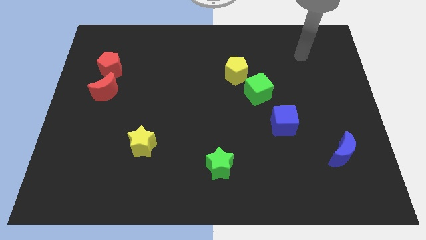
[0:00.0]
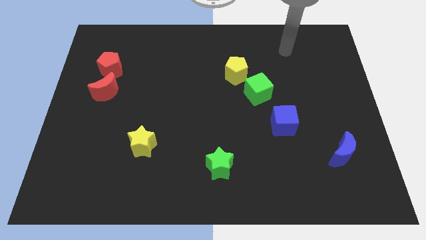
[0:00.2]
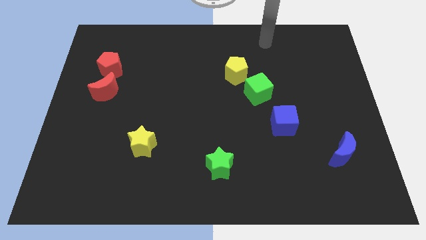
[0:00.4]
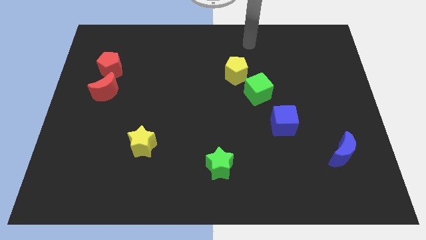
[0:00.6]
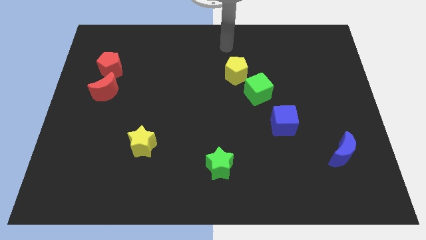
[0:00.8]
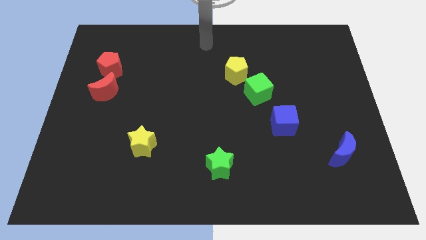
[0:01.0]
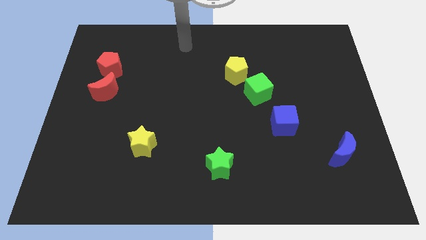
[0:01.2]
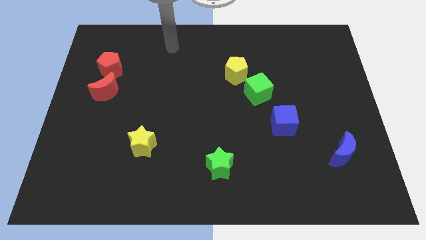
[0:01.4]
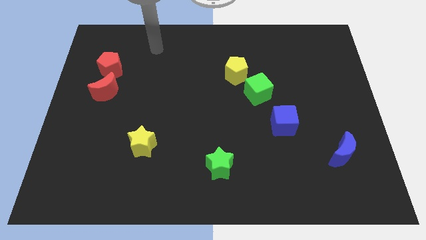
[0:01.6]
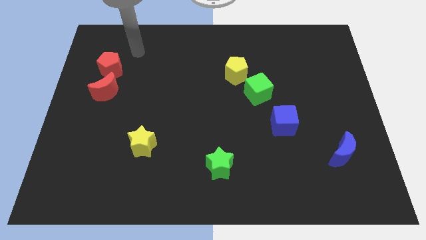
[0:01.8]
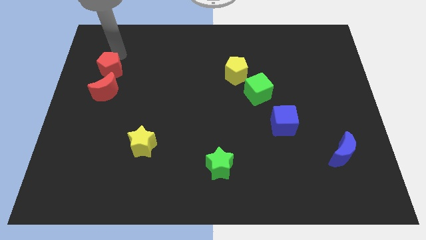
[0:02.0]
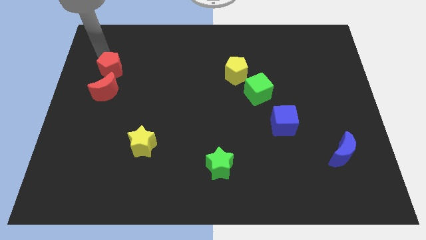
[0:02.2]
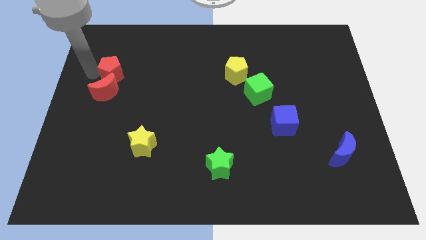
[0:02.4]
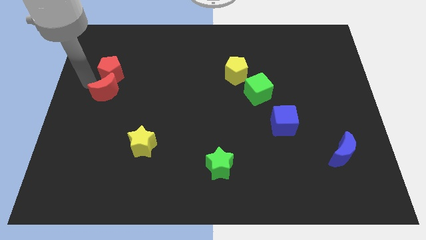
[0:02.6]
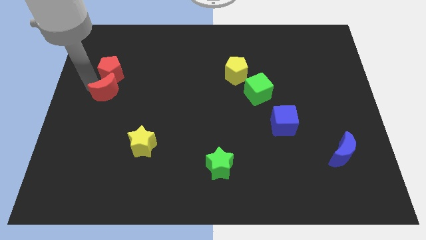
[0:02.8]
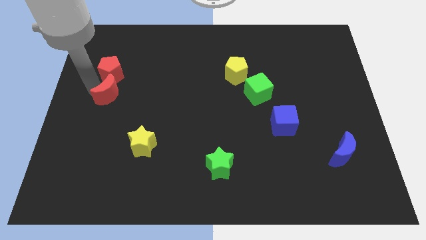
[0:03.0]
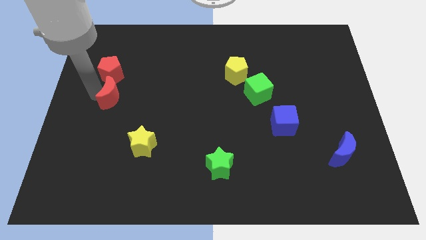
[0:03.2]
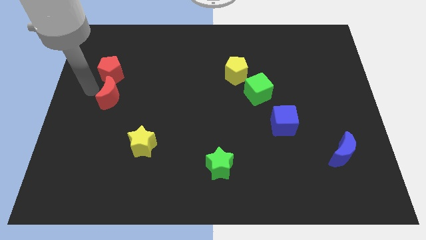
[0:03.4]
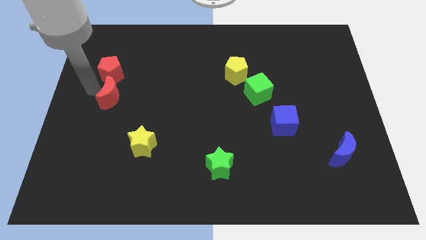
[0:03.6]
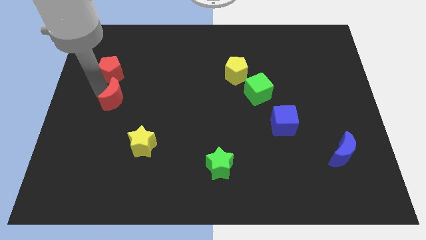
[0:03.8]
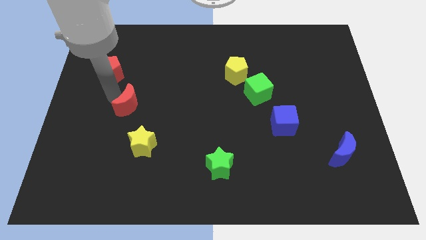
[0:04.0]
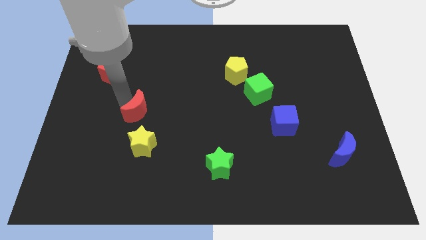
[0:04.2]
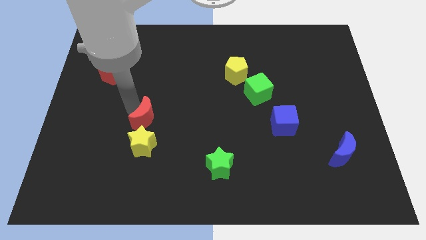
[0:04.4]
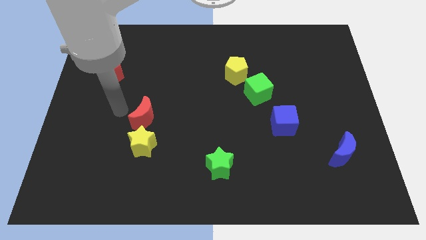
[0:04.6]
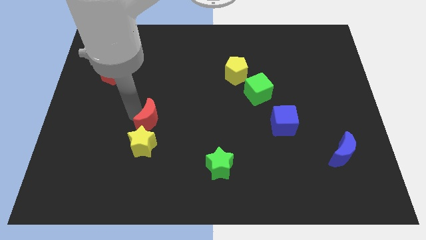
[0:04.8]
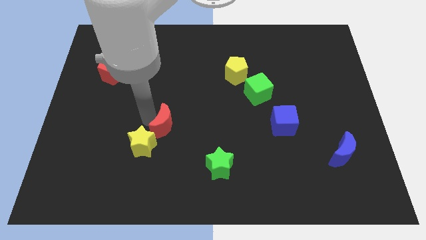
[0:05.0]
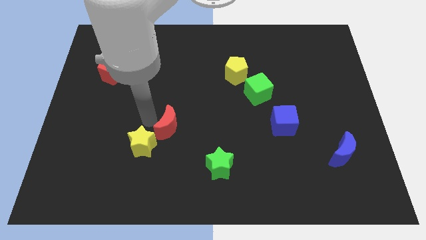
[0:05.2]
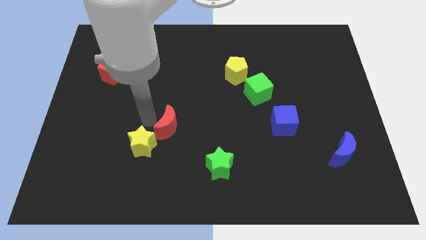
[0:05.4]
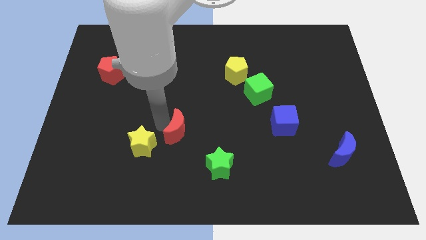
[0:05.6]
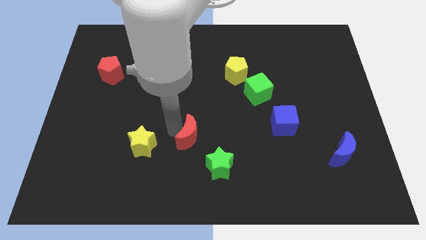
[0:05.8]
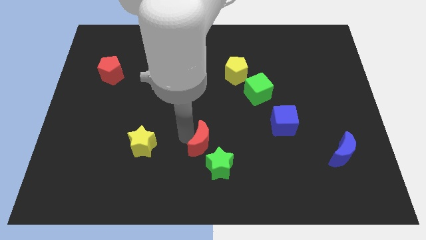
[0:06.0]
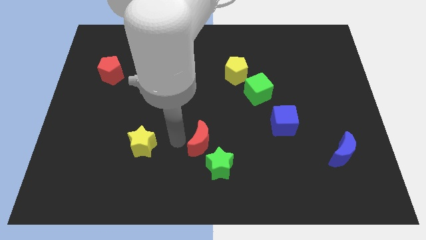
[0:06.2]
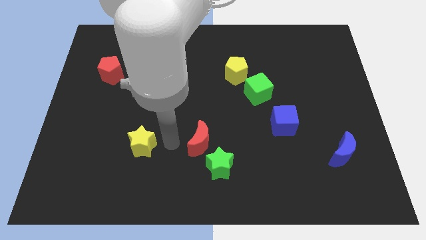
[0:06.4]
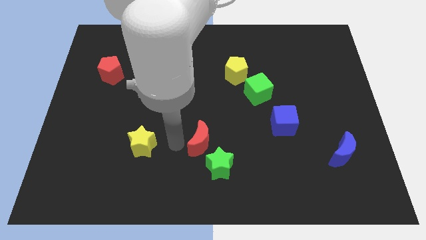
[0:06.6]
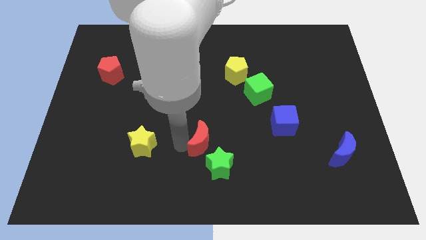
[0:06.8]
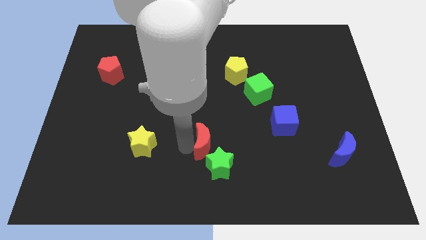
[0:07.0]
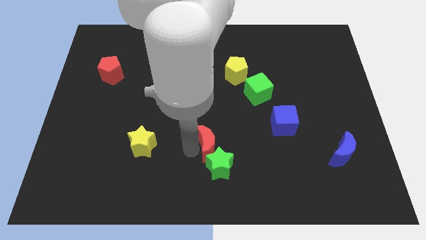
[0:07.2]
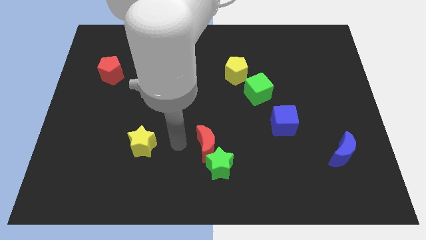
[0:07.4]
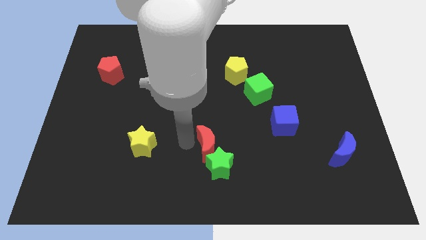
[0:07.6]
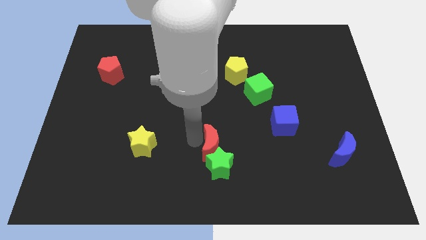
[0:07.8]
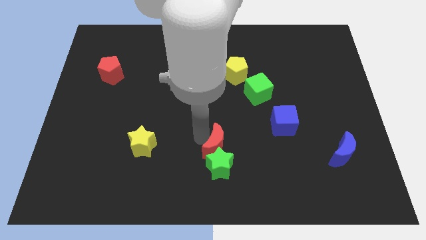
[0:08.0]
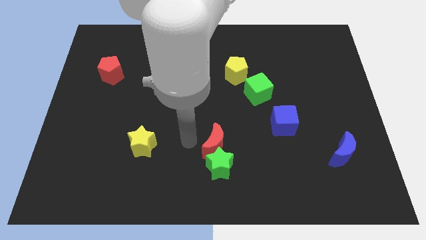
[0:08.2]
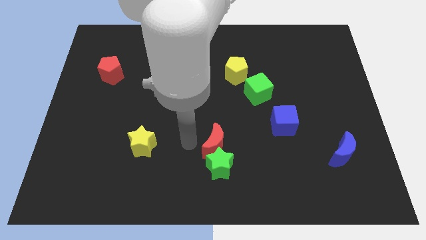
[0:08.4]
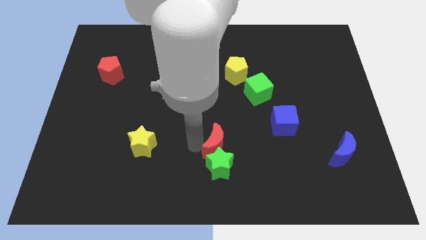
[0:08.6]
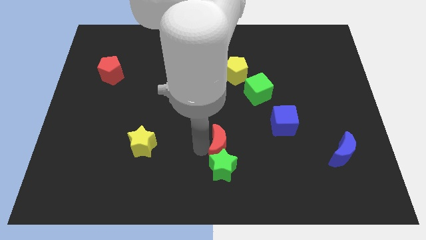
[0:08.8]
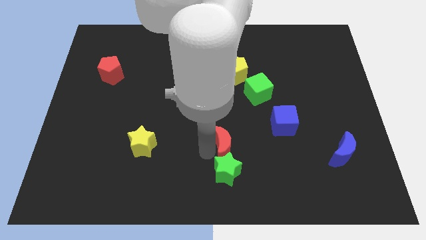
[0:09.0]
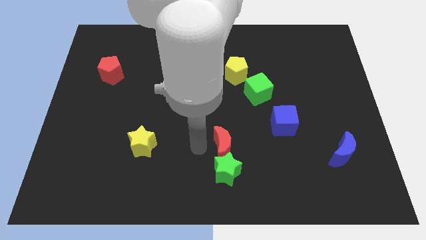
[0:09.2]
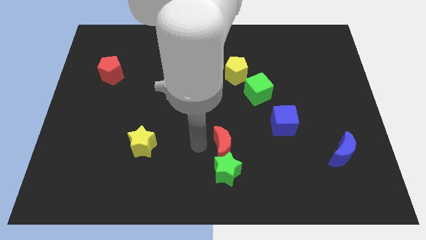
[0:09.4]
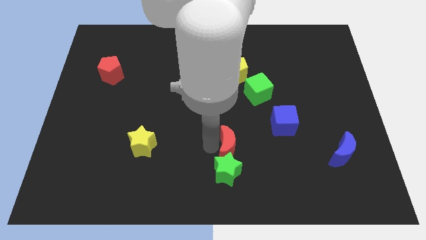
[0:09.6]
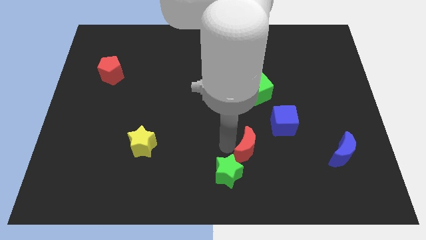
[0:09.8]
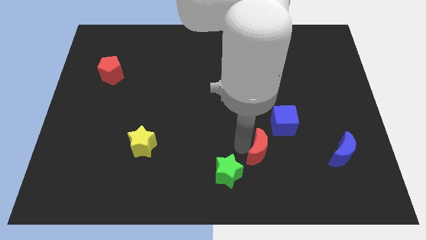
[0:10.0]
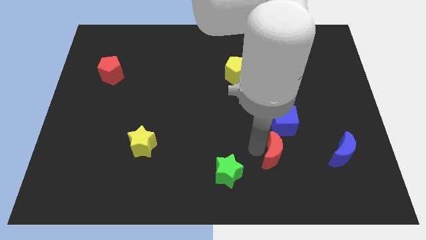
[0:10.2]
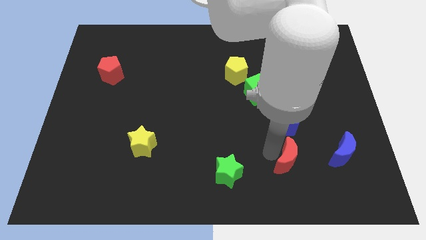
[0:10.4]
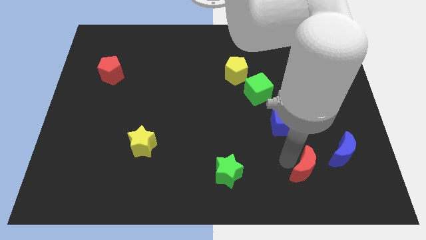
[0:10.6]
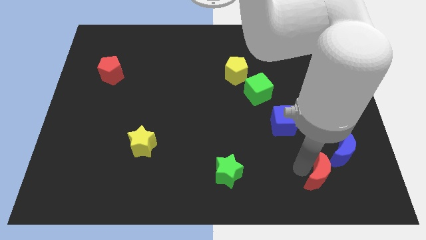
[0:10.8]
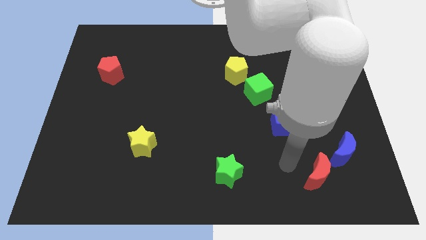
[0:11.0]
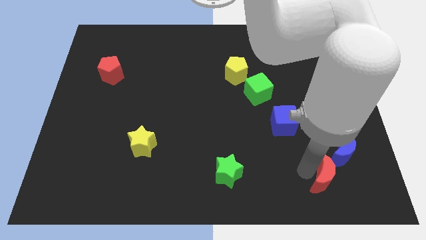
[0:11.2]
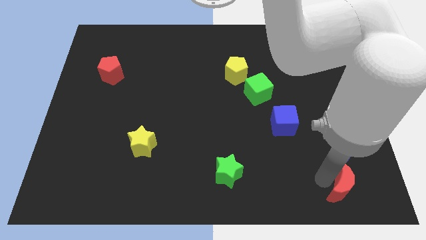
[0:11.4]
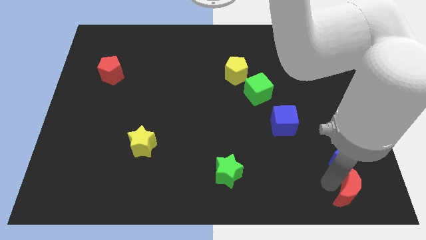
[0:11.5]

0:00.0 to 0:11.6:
slide the red moon to the bottom right of the board

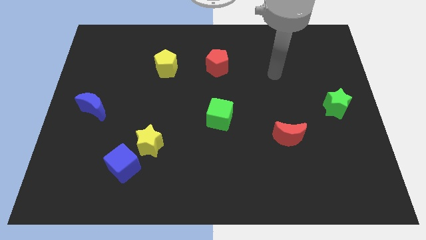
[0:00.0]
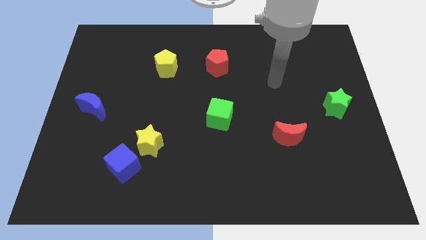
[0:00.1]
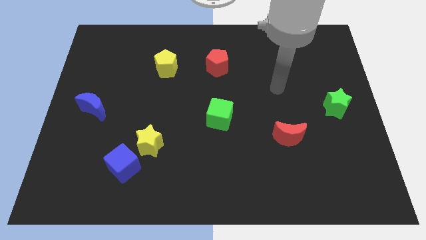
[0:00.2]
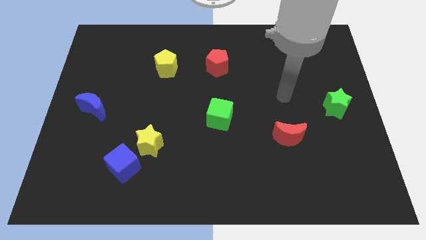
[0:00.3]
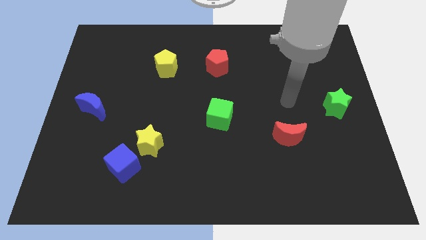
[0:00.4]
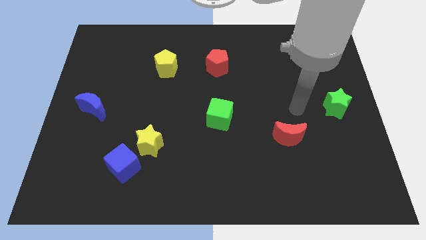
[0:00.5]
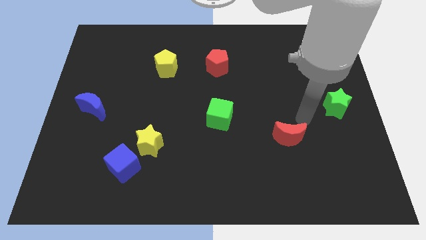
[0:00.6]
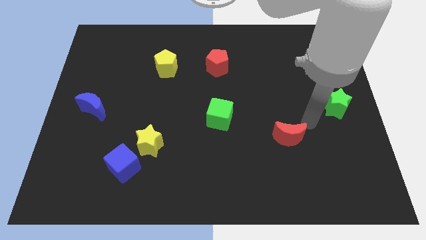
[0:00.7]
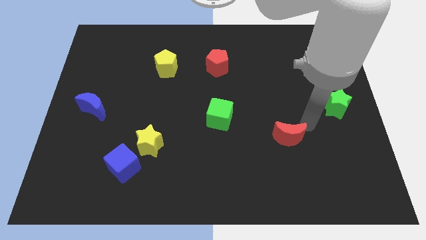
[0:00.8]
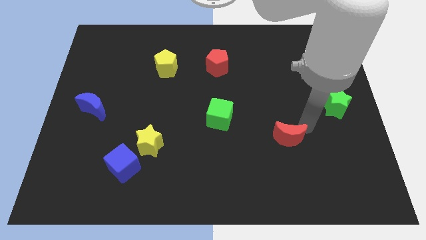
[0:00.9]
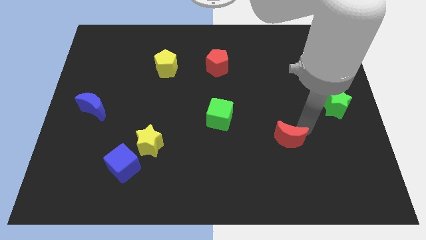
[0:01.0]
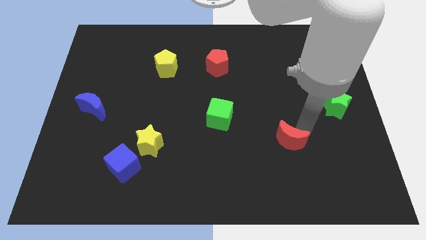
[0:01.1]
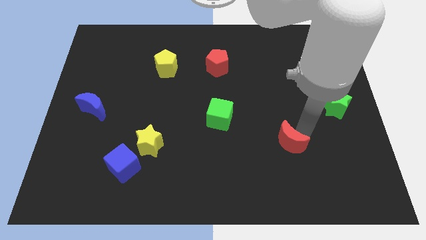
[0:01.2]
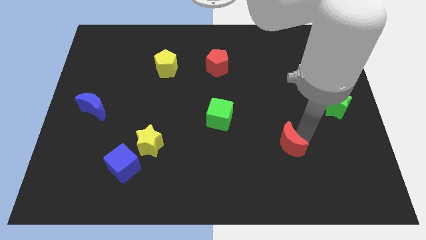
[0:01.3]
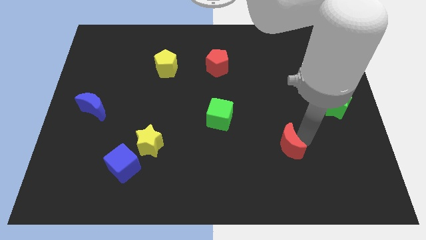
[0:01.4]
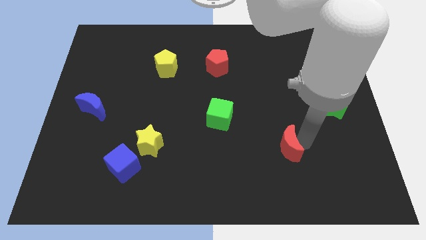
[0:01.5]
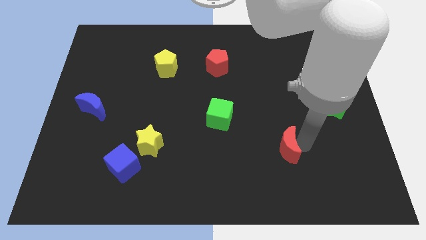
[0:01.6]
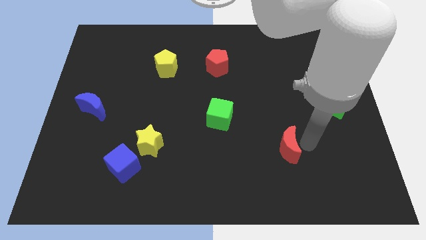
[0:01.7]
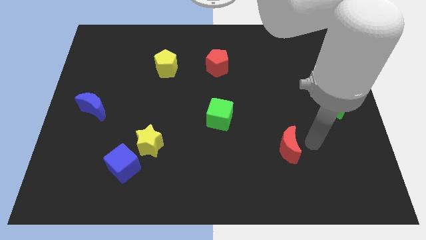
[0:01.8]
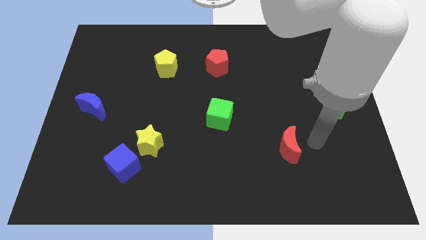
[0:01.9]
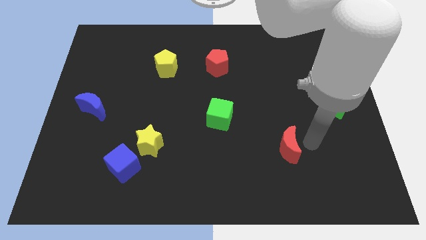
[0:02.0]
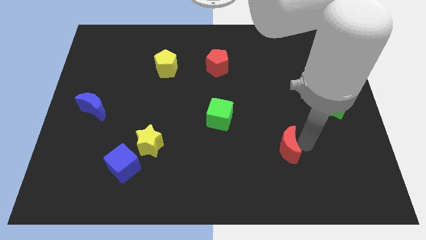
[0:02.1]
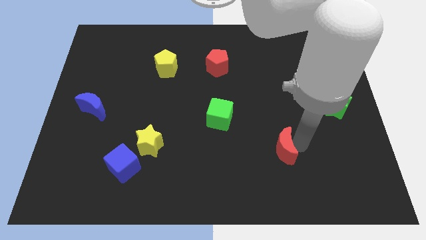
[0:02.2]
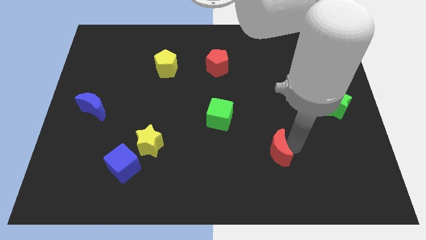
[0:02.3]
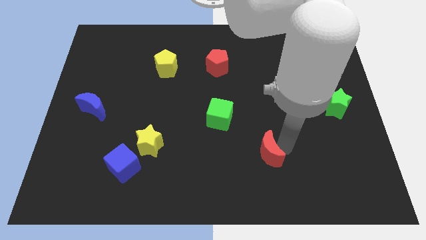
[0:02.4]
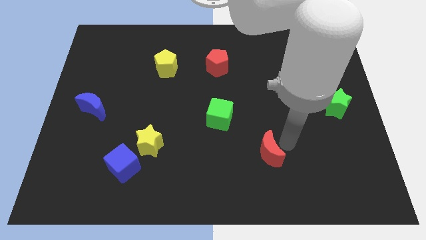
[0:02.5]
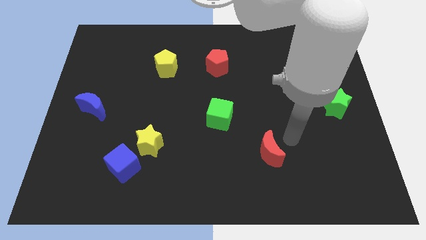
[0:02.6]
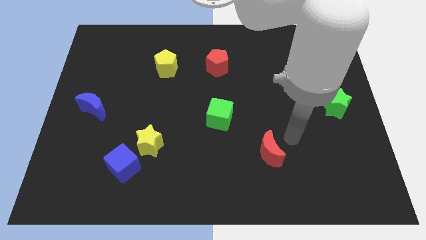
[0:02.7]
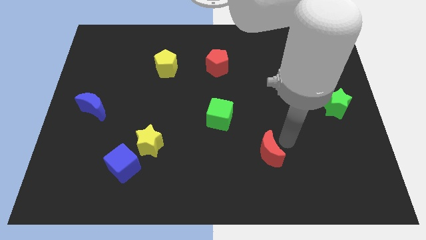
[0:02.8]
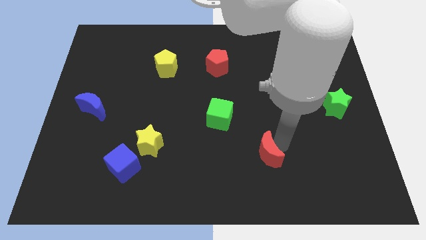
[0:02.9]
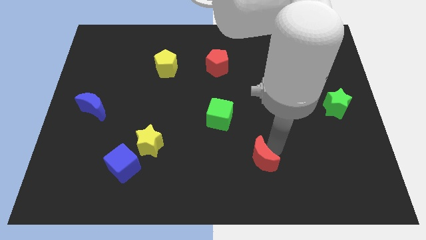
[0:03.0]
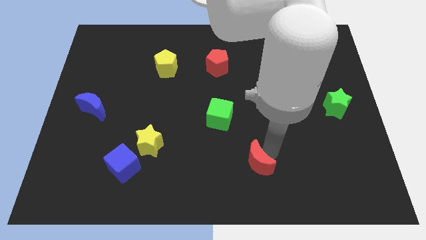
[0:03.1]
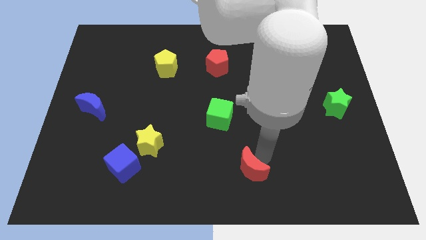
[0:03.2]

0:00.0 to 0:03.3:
slide the red moon to the bottom side
